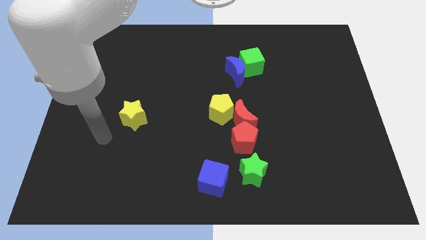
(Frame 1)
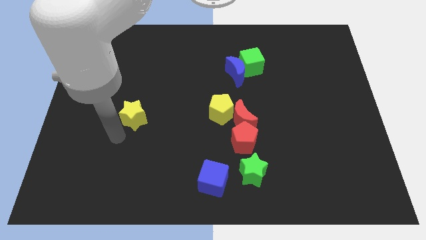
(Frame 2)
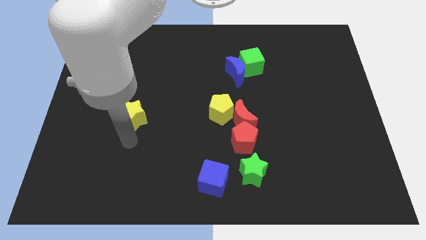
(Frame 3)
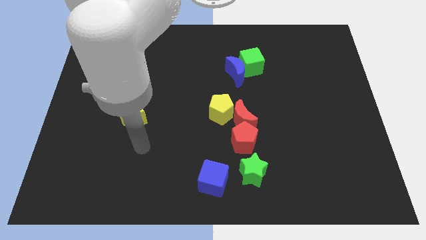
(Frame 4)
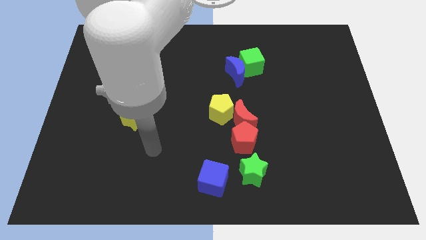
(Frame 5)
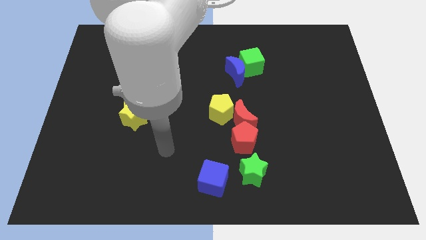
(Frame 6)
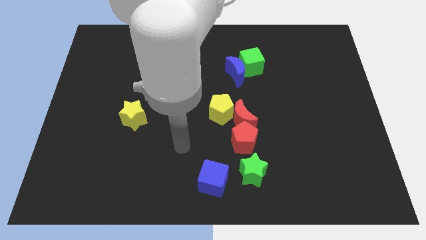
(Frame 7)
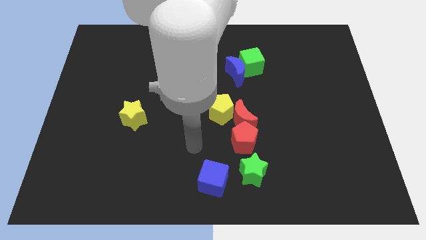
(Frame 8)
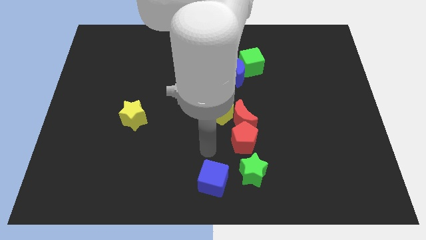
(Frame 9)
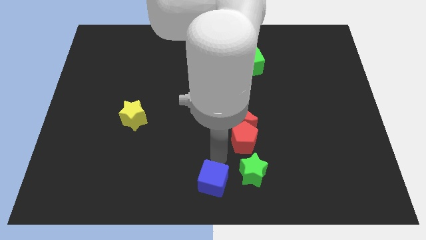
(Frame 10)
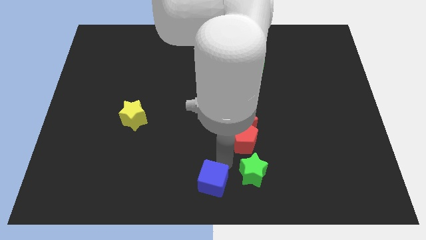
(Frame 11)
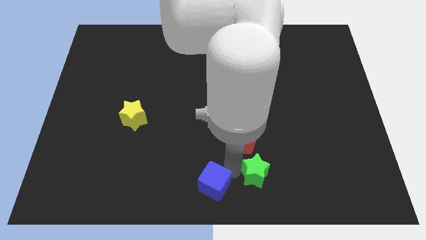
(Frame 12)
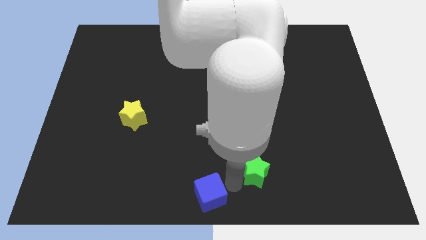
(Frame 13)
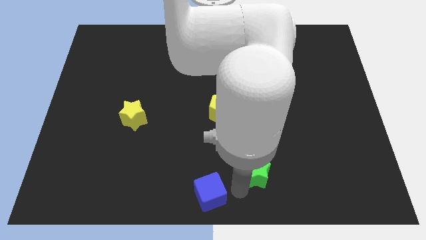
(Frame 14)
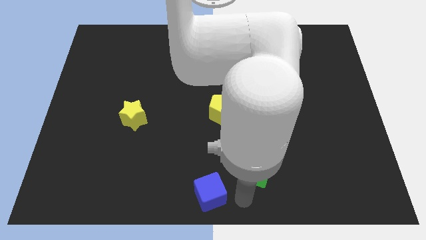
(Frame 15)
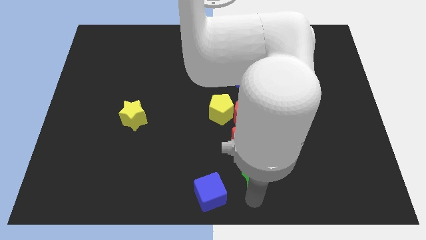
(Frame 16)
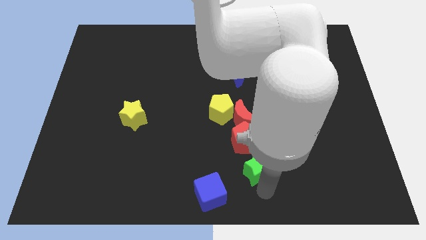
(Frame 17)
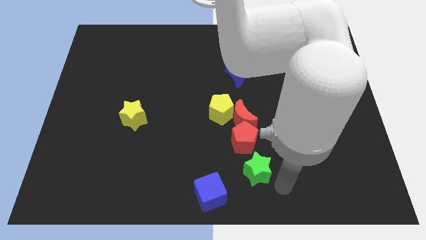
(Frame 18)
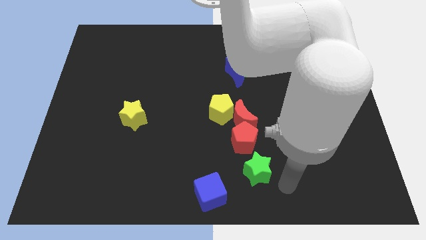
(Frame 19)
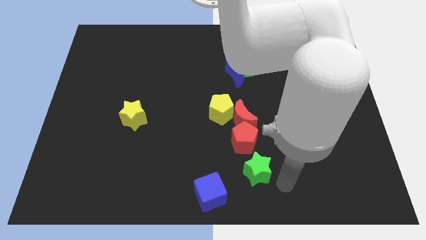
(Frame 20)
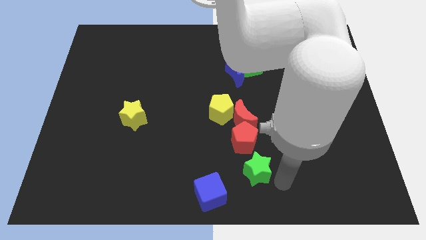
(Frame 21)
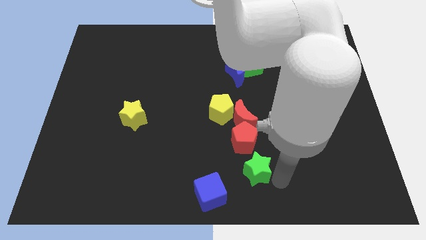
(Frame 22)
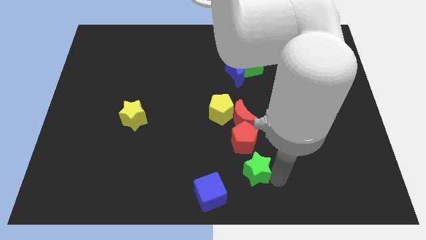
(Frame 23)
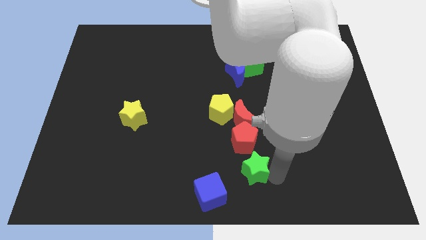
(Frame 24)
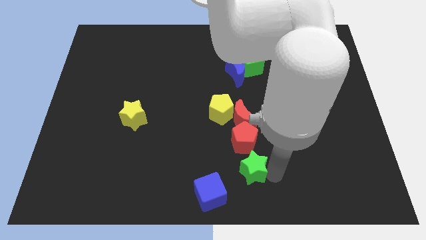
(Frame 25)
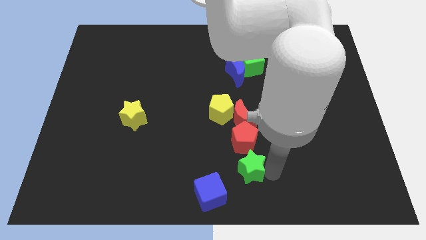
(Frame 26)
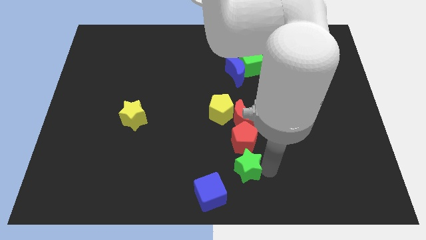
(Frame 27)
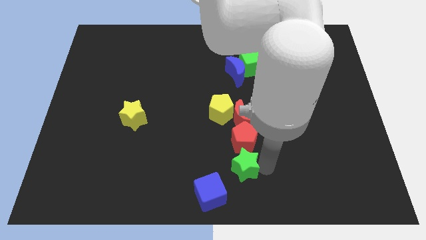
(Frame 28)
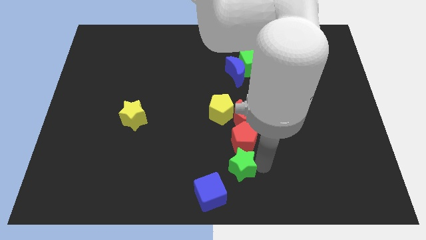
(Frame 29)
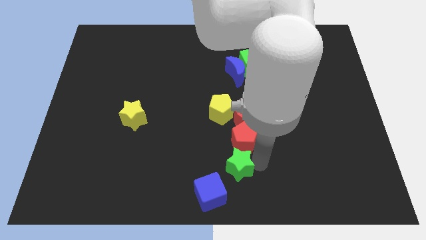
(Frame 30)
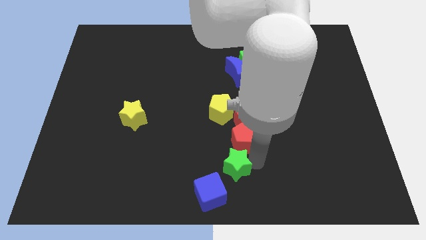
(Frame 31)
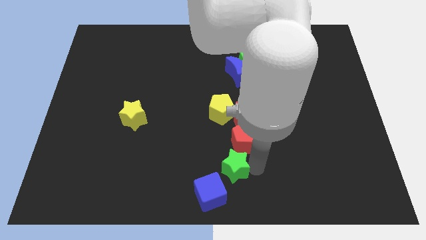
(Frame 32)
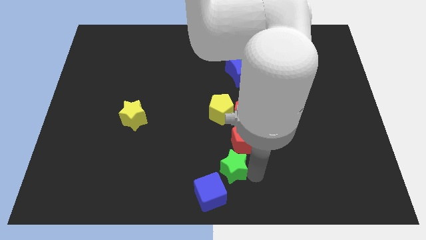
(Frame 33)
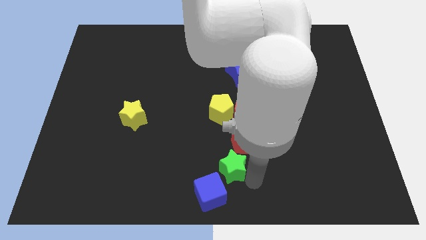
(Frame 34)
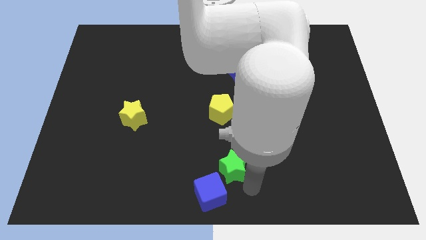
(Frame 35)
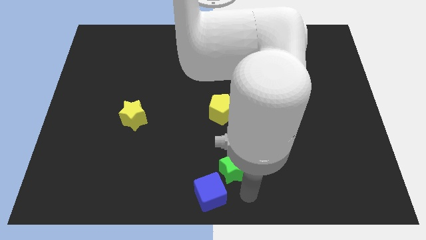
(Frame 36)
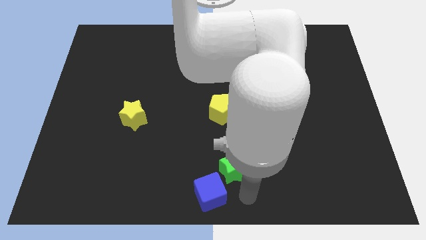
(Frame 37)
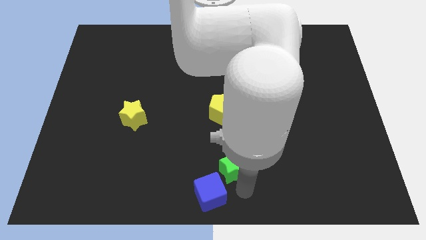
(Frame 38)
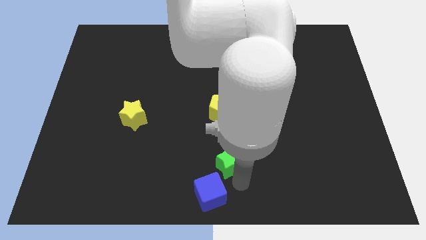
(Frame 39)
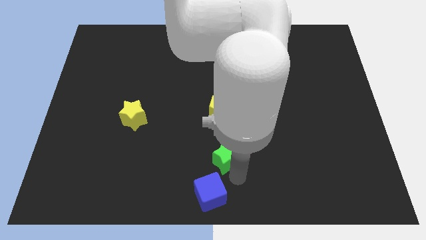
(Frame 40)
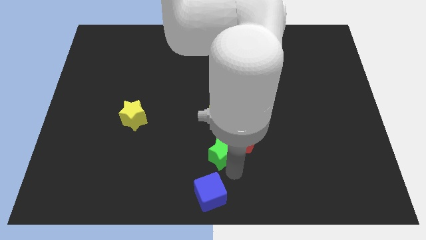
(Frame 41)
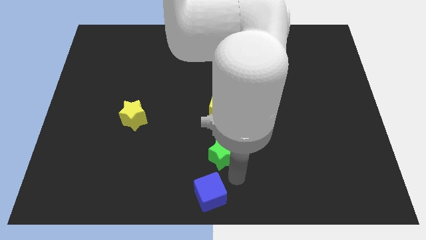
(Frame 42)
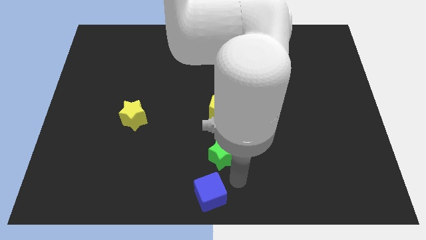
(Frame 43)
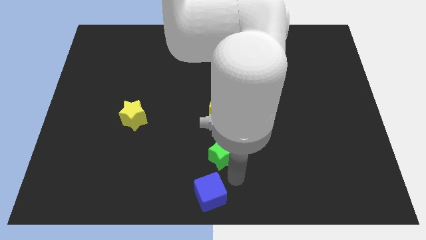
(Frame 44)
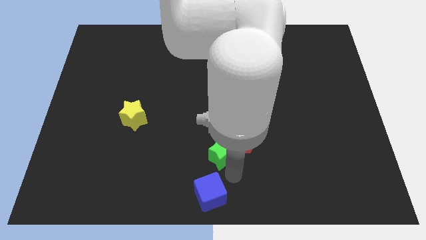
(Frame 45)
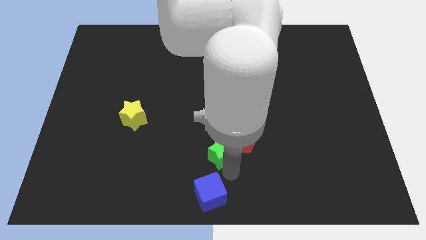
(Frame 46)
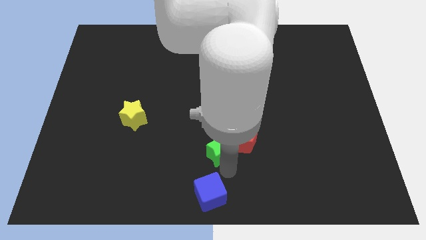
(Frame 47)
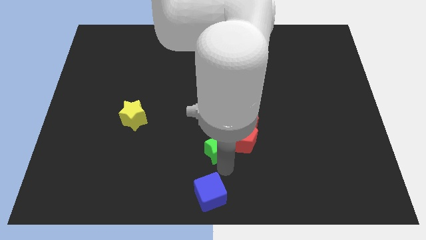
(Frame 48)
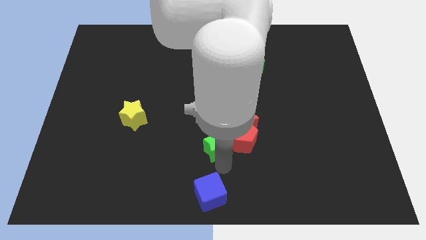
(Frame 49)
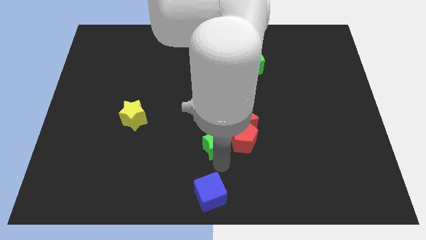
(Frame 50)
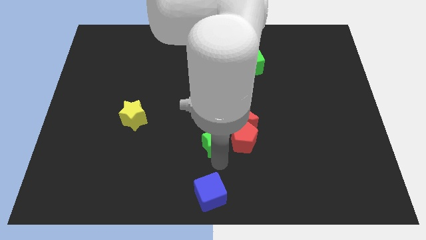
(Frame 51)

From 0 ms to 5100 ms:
put the green star to the center

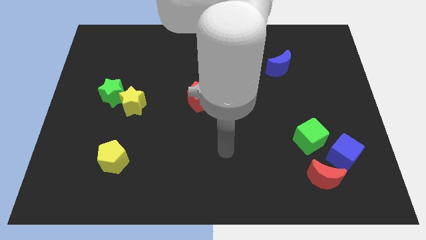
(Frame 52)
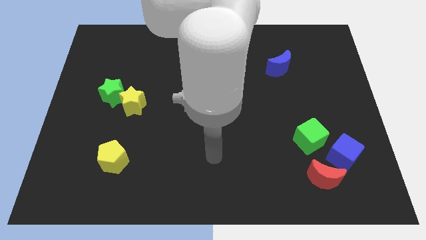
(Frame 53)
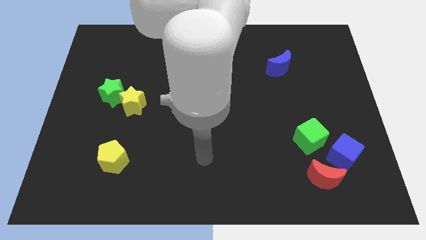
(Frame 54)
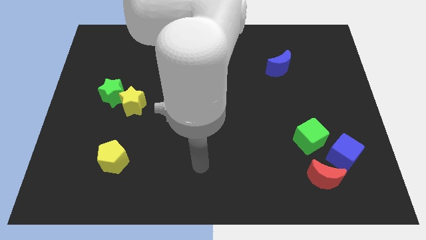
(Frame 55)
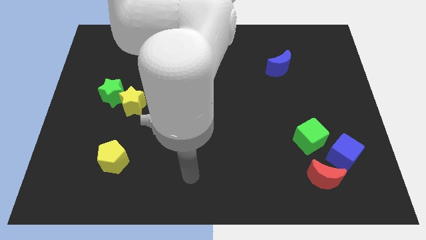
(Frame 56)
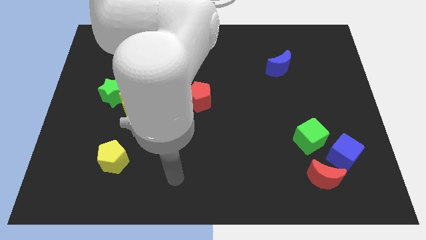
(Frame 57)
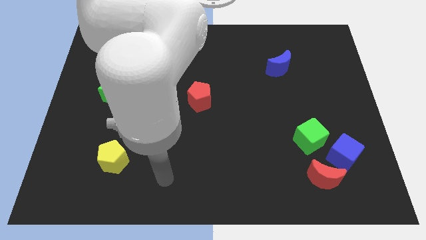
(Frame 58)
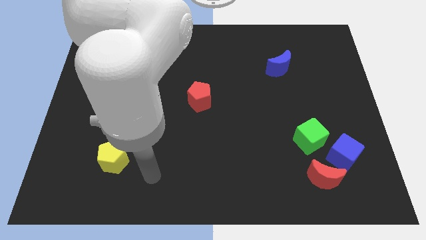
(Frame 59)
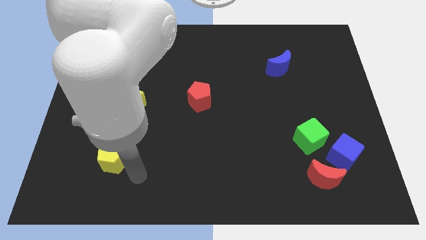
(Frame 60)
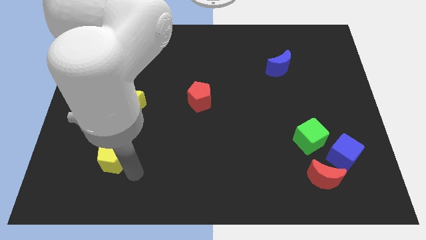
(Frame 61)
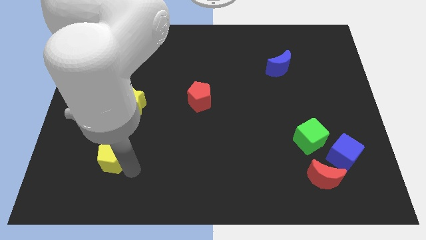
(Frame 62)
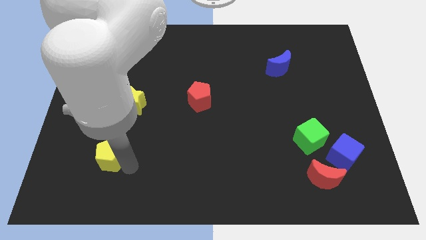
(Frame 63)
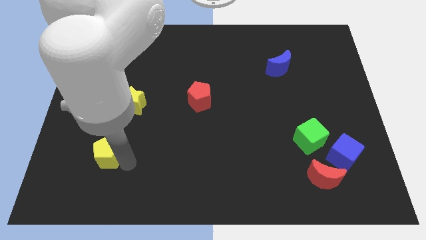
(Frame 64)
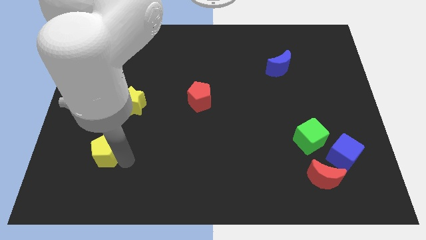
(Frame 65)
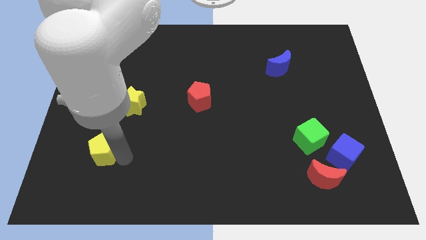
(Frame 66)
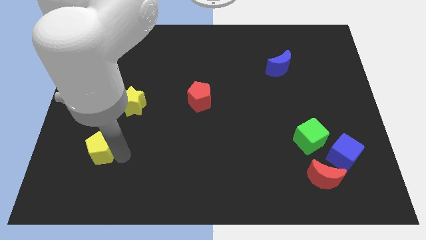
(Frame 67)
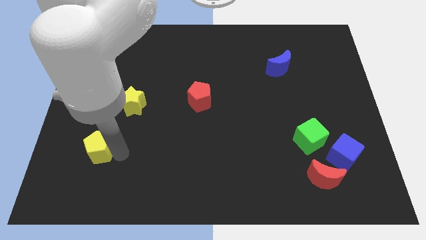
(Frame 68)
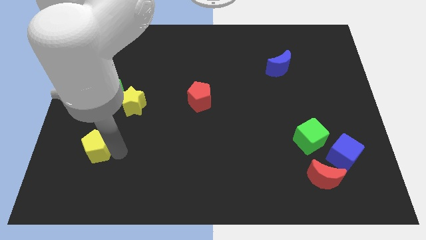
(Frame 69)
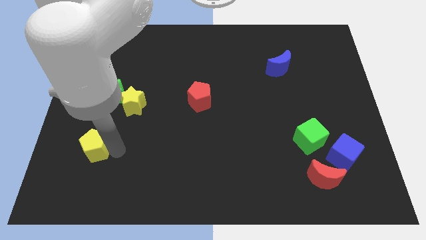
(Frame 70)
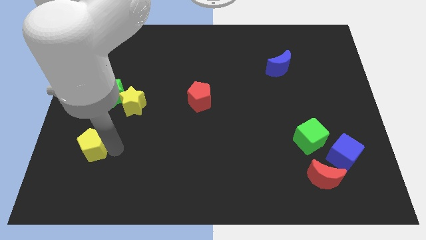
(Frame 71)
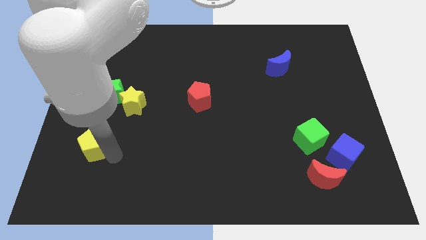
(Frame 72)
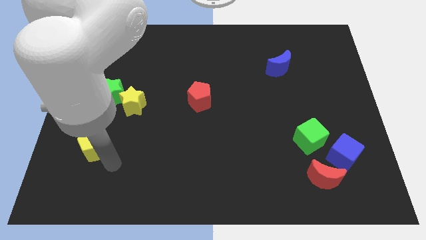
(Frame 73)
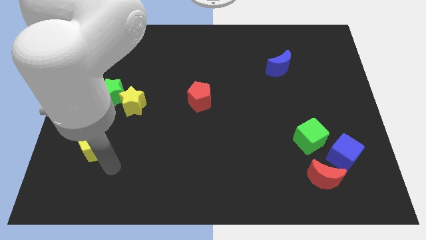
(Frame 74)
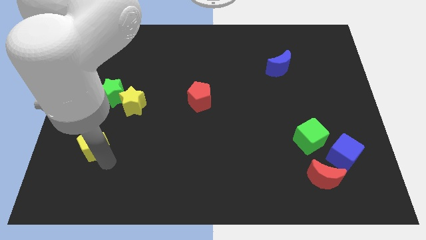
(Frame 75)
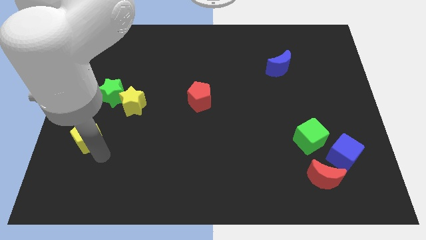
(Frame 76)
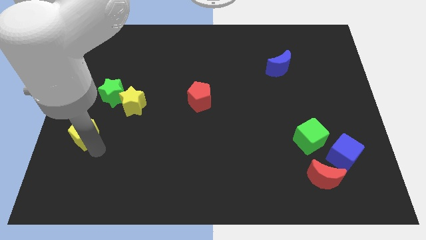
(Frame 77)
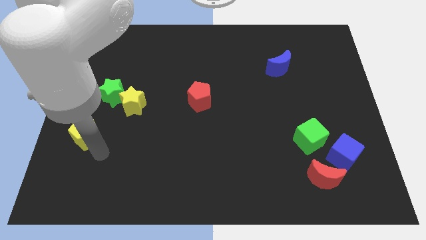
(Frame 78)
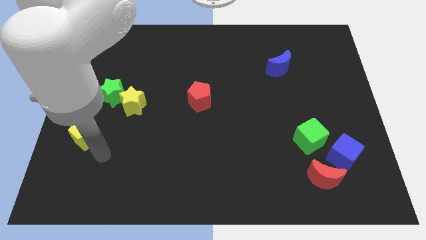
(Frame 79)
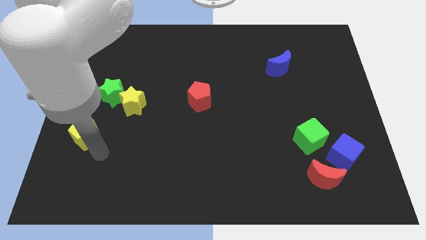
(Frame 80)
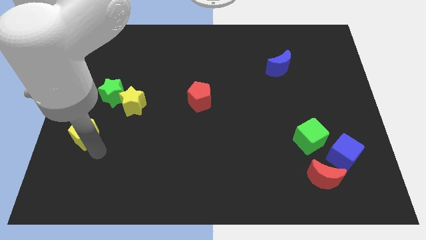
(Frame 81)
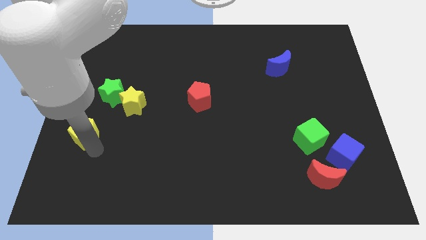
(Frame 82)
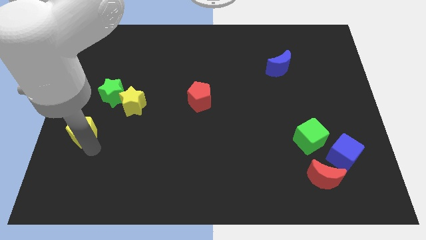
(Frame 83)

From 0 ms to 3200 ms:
push the yellow pentagon to the left side
